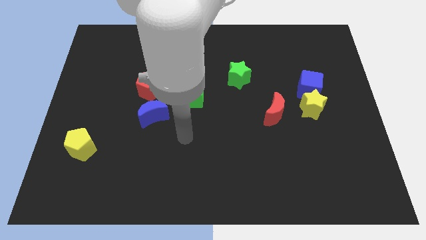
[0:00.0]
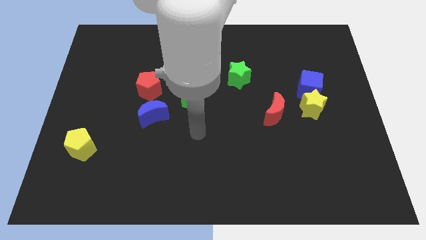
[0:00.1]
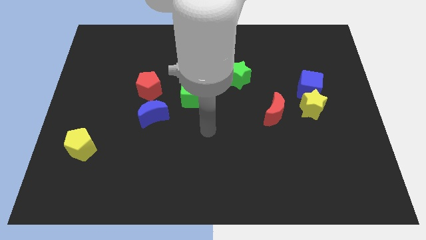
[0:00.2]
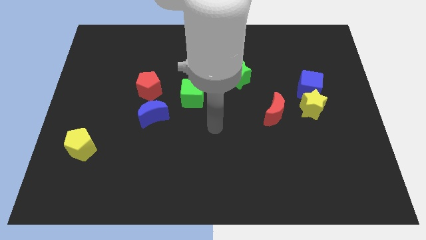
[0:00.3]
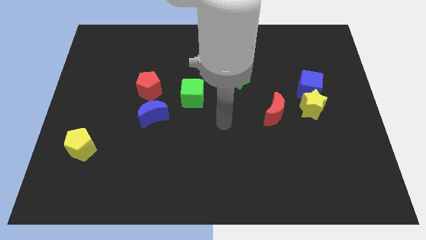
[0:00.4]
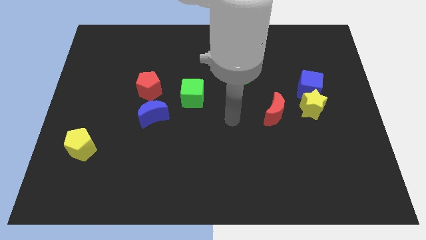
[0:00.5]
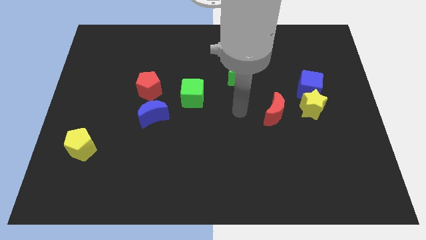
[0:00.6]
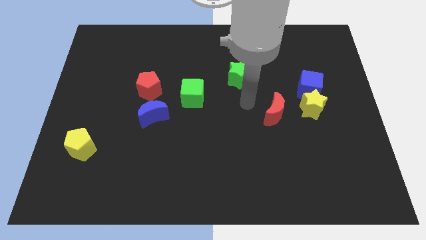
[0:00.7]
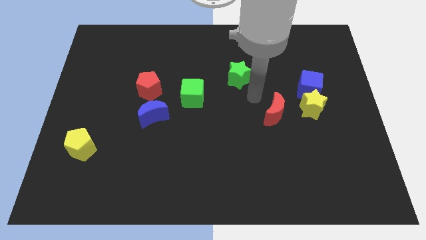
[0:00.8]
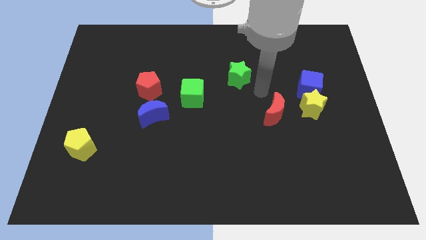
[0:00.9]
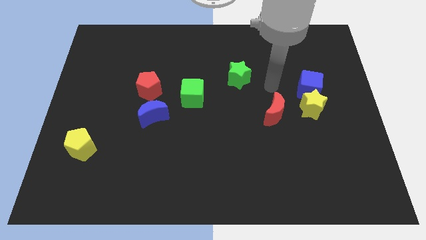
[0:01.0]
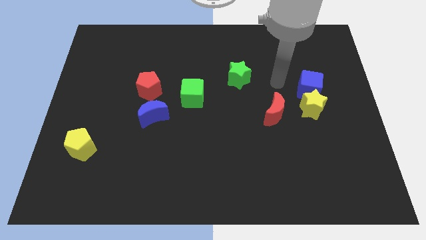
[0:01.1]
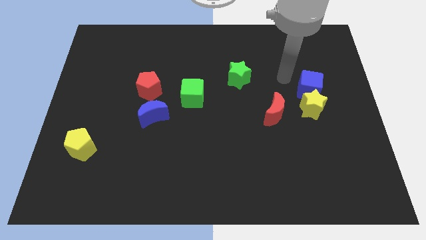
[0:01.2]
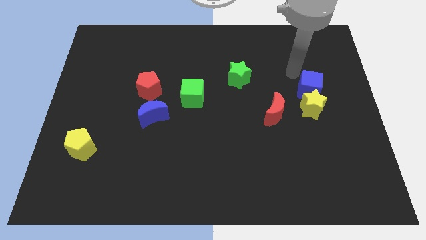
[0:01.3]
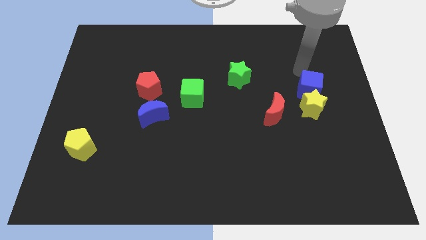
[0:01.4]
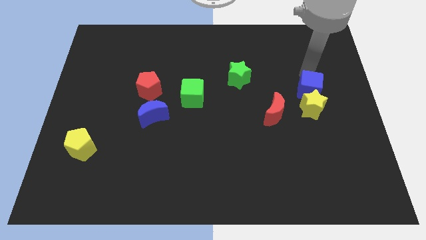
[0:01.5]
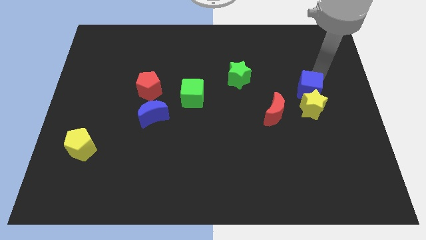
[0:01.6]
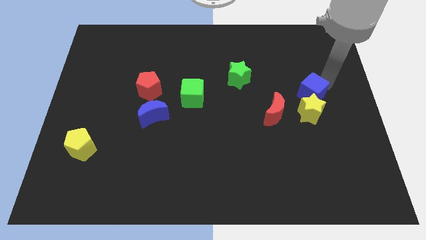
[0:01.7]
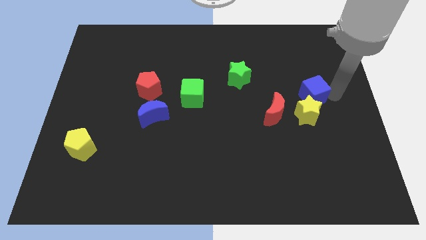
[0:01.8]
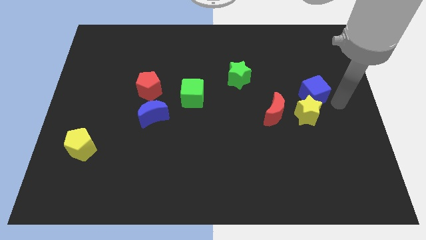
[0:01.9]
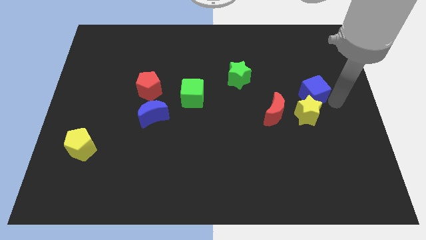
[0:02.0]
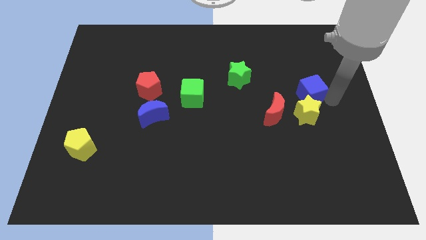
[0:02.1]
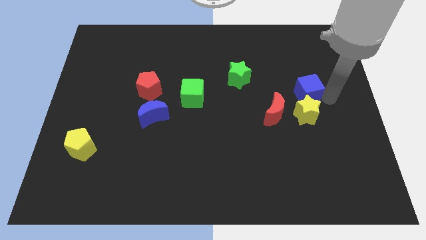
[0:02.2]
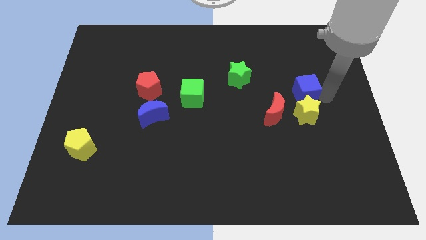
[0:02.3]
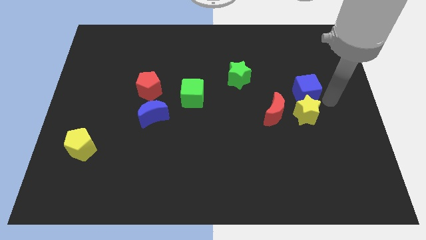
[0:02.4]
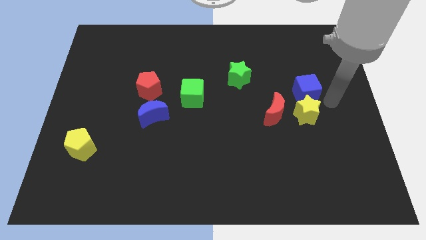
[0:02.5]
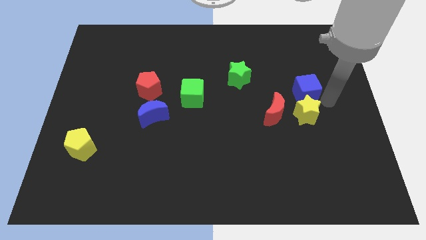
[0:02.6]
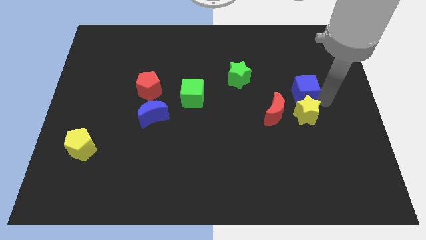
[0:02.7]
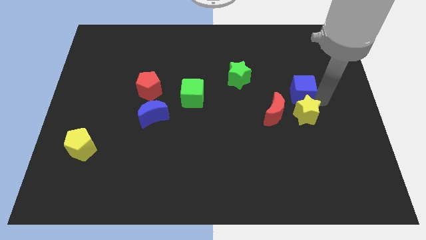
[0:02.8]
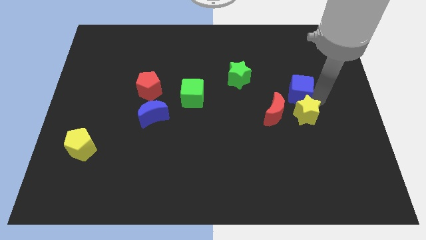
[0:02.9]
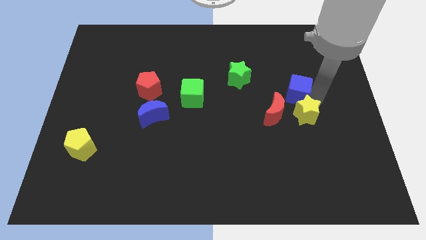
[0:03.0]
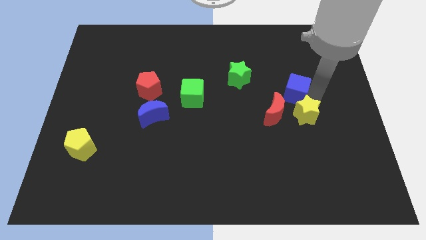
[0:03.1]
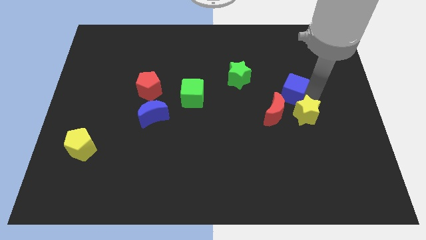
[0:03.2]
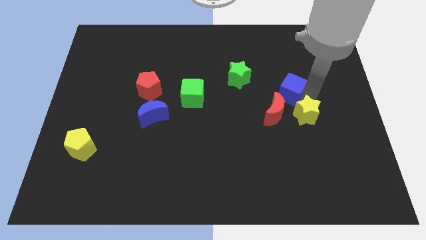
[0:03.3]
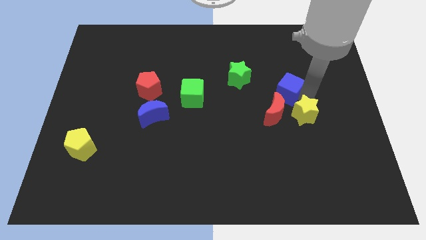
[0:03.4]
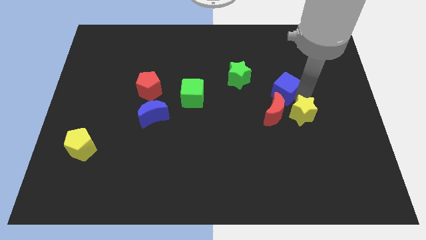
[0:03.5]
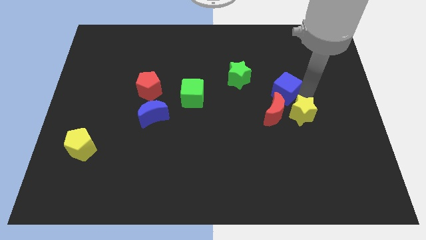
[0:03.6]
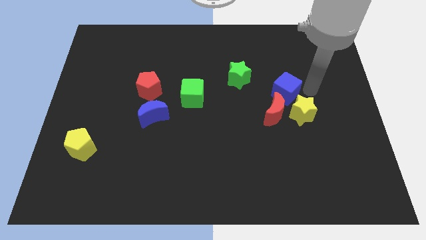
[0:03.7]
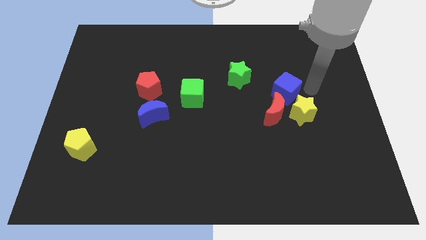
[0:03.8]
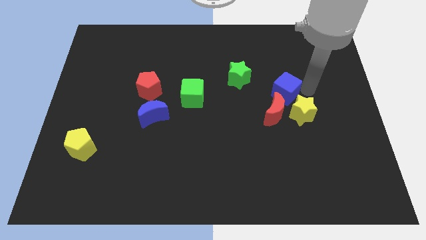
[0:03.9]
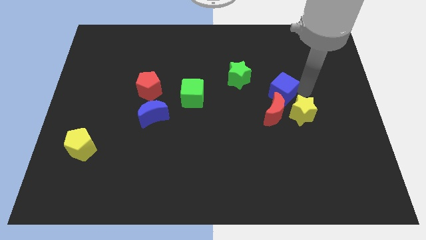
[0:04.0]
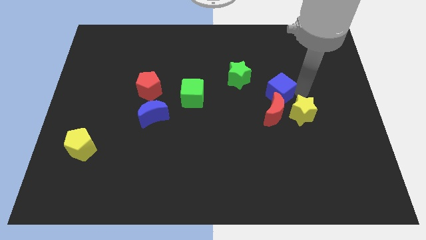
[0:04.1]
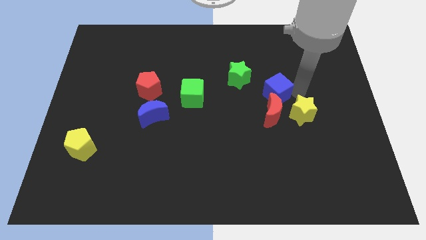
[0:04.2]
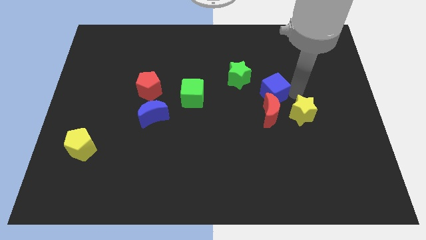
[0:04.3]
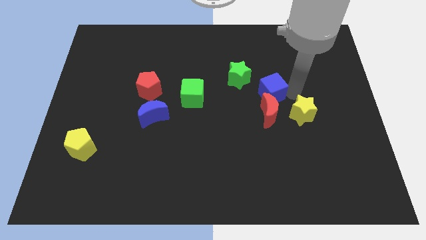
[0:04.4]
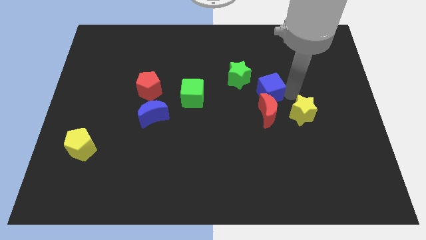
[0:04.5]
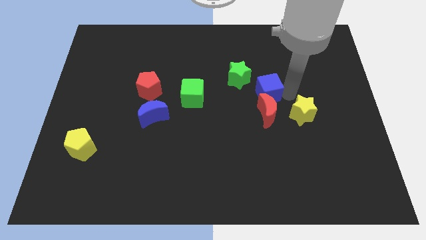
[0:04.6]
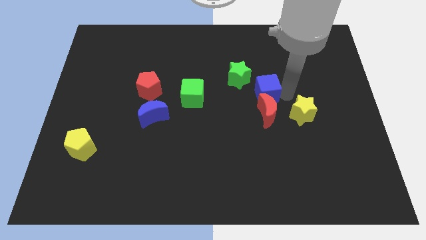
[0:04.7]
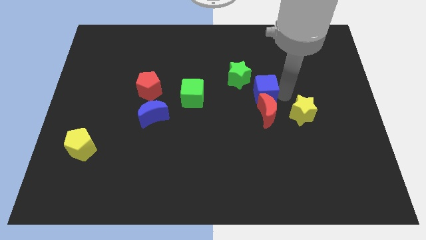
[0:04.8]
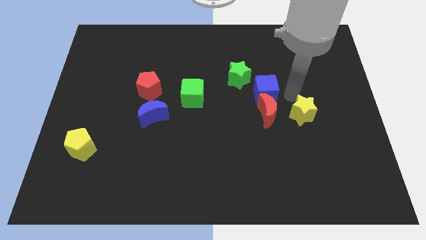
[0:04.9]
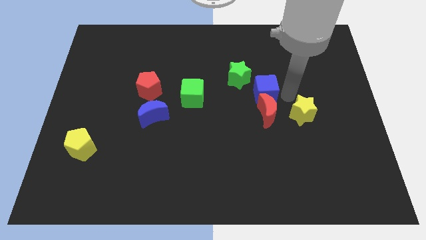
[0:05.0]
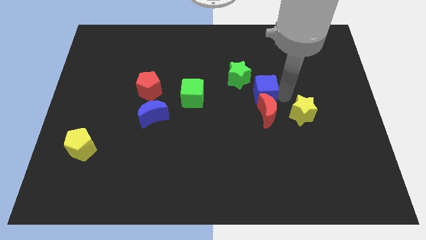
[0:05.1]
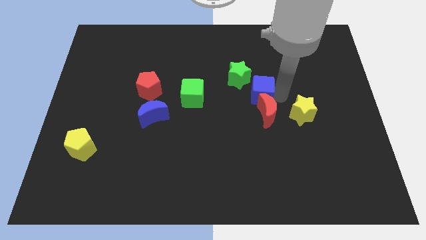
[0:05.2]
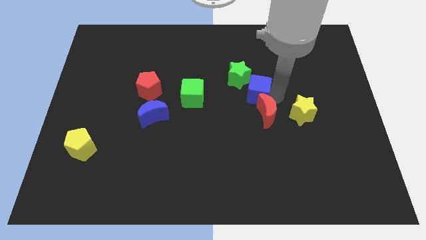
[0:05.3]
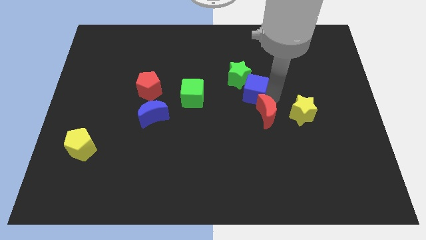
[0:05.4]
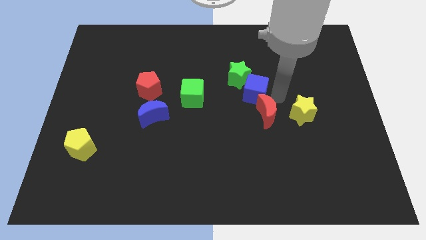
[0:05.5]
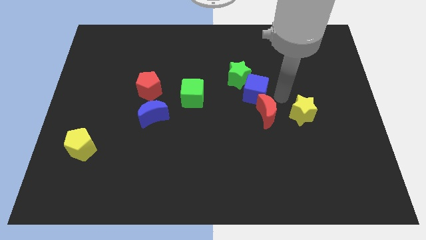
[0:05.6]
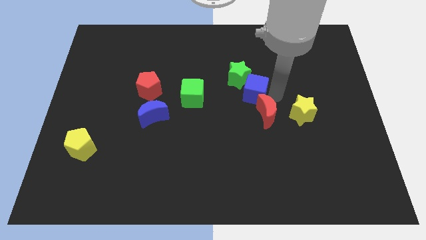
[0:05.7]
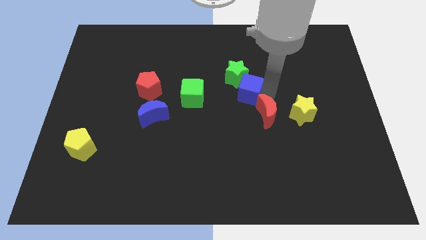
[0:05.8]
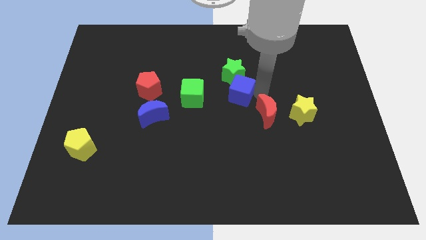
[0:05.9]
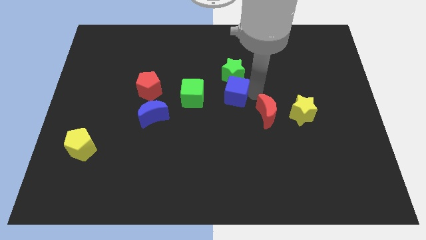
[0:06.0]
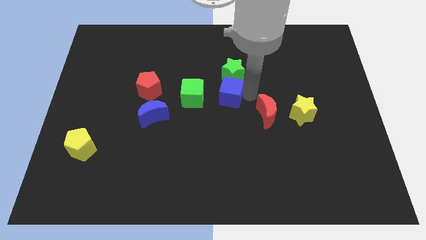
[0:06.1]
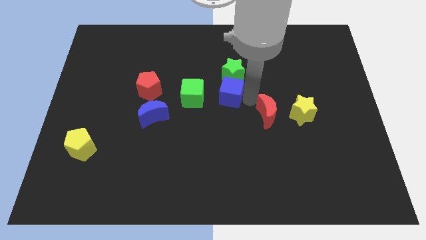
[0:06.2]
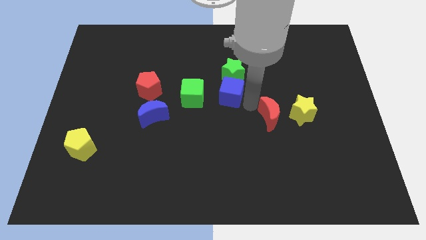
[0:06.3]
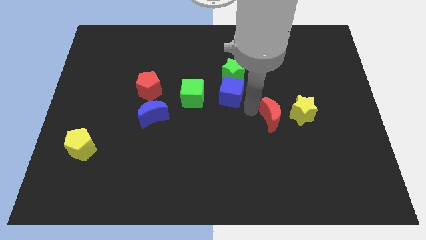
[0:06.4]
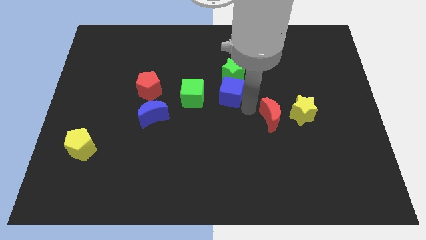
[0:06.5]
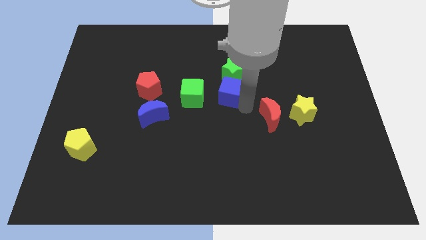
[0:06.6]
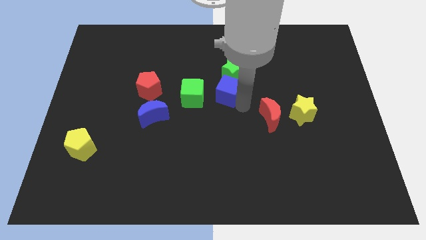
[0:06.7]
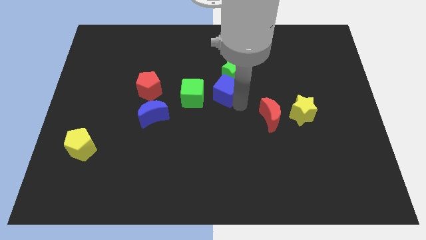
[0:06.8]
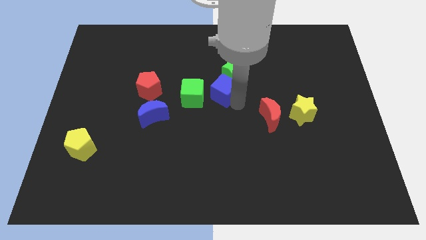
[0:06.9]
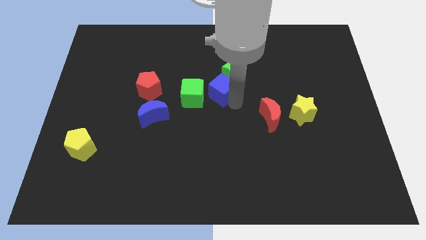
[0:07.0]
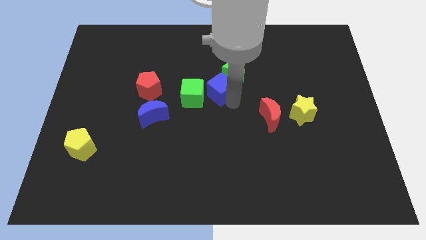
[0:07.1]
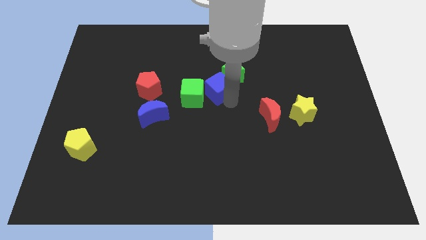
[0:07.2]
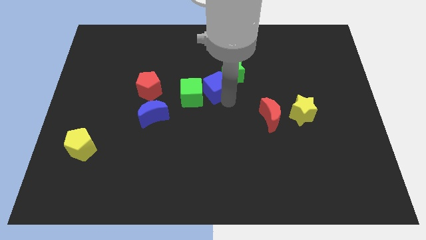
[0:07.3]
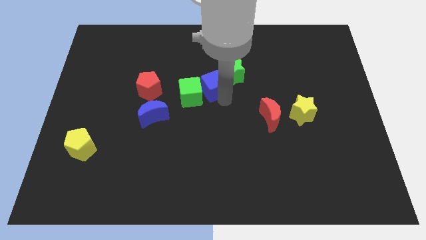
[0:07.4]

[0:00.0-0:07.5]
slide the blue cube to the left side of the green star

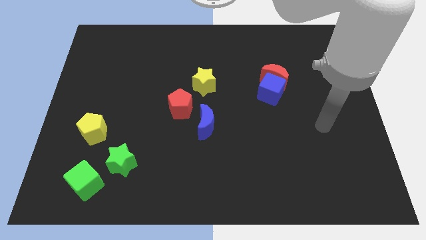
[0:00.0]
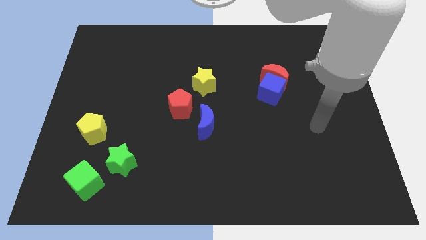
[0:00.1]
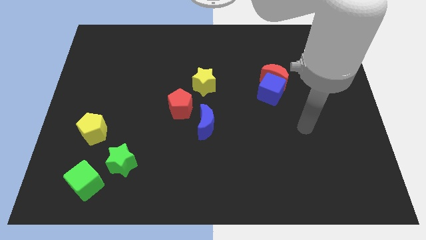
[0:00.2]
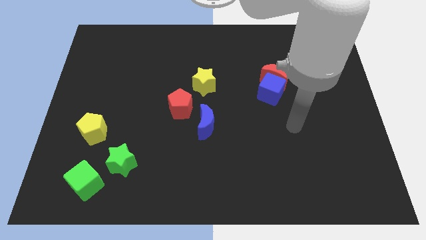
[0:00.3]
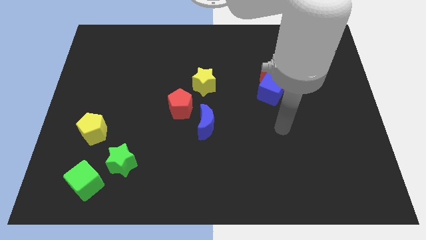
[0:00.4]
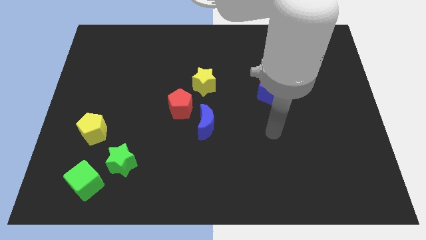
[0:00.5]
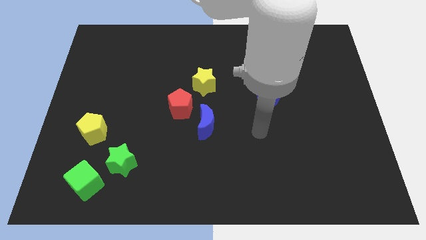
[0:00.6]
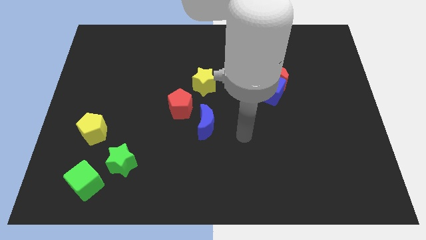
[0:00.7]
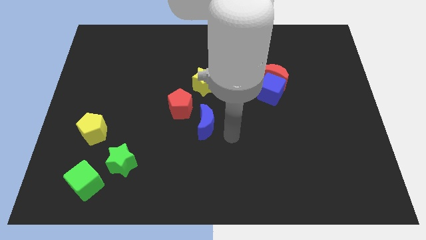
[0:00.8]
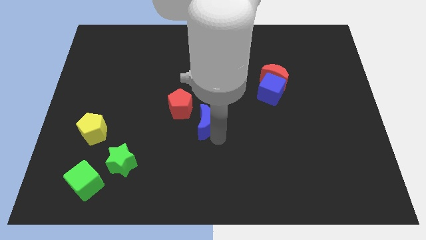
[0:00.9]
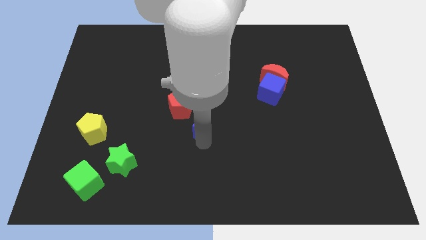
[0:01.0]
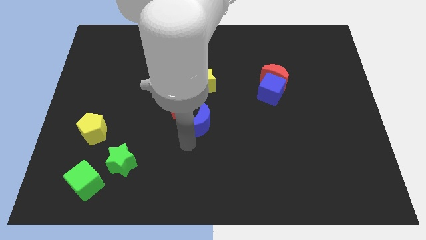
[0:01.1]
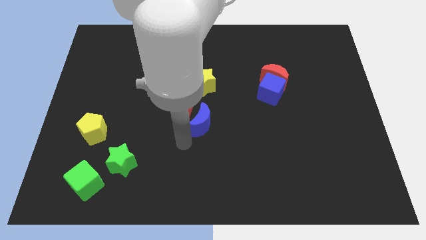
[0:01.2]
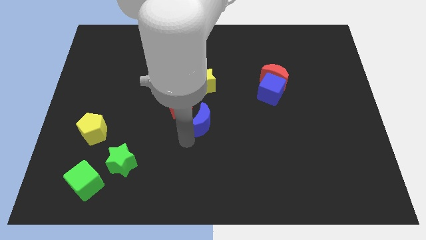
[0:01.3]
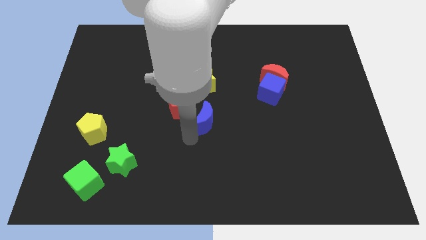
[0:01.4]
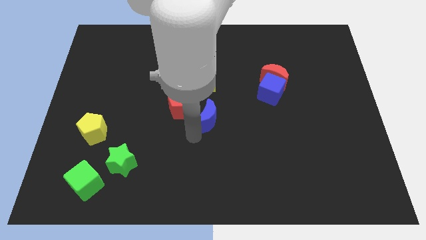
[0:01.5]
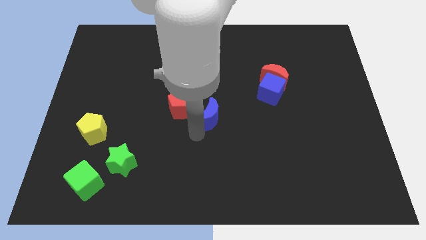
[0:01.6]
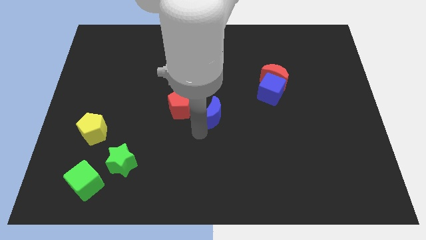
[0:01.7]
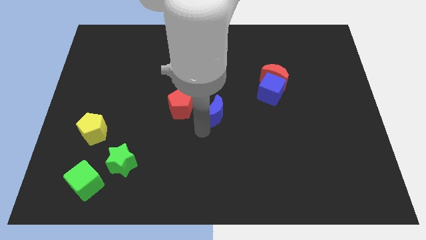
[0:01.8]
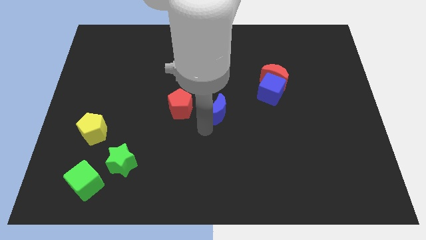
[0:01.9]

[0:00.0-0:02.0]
move the blue moon to the bottom right side of the yellow star
